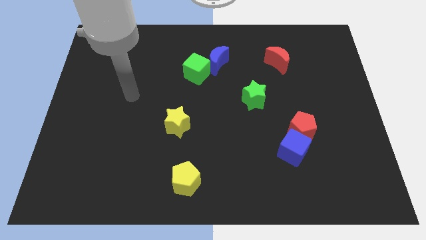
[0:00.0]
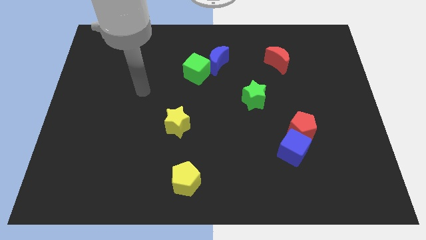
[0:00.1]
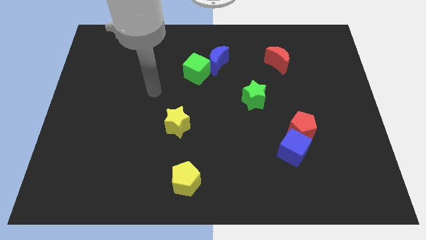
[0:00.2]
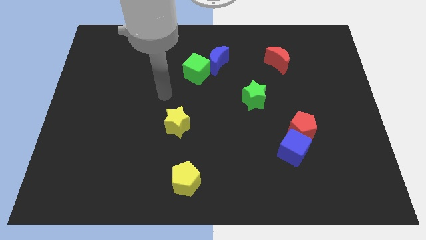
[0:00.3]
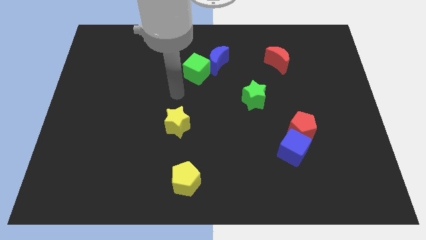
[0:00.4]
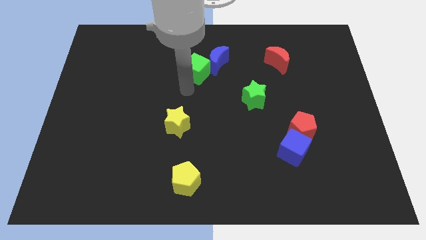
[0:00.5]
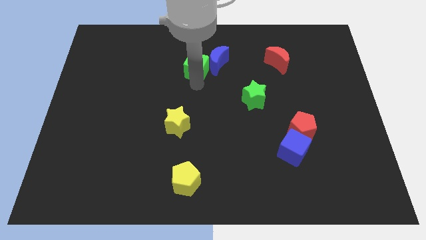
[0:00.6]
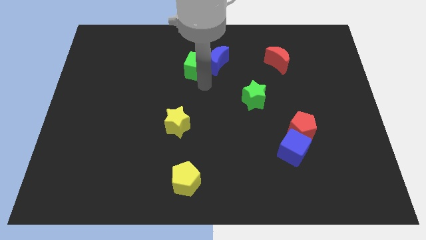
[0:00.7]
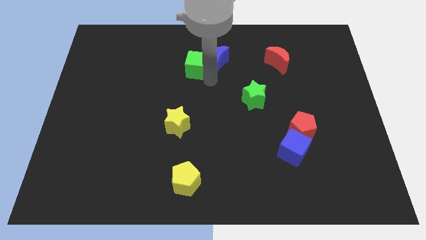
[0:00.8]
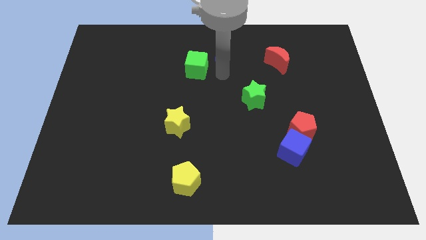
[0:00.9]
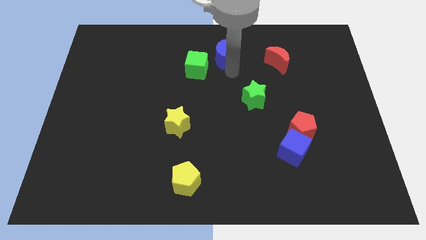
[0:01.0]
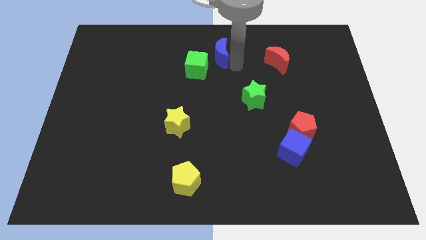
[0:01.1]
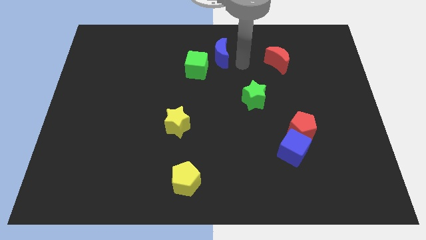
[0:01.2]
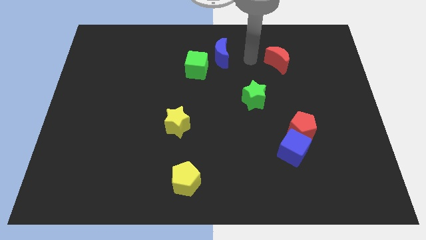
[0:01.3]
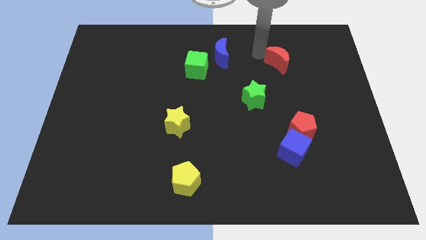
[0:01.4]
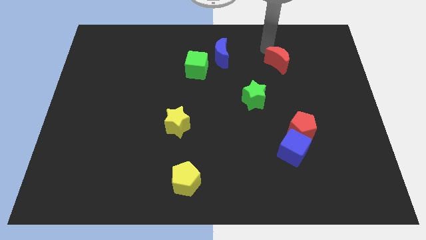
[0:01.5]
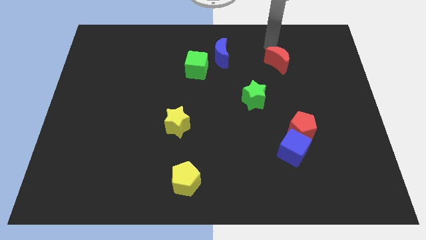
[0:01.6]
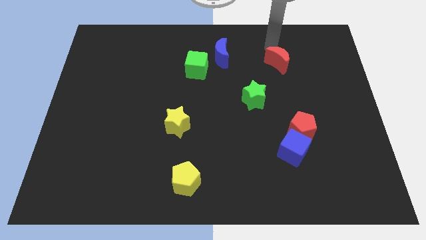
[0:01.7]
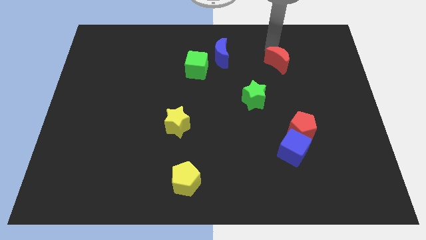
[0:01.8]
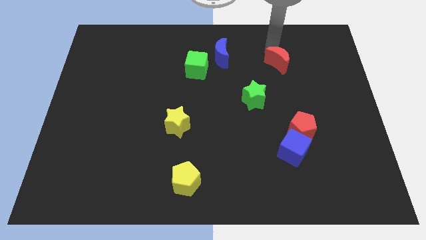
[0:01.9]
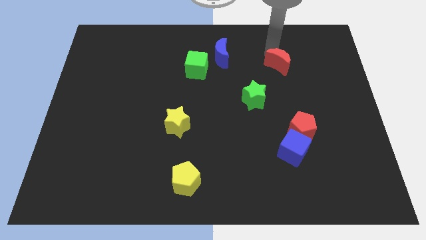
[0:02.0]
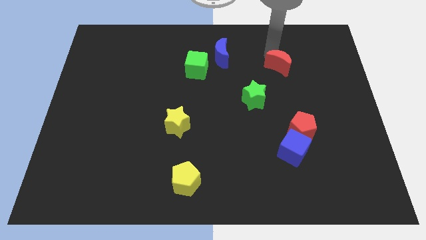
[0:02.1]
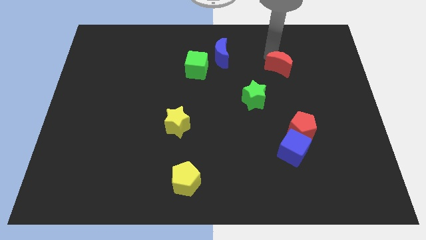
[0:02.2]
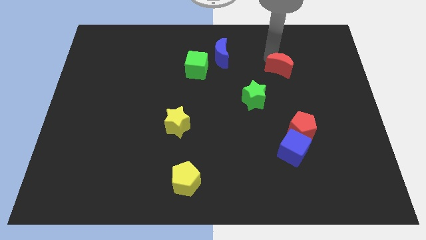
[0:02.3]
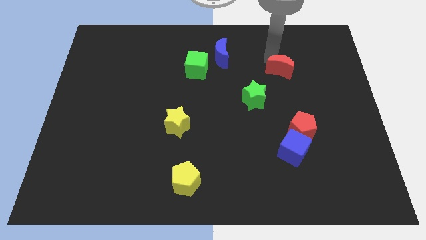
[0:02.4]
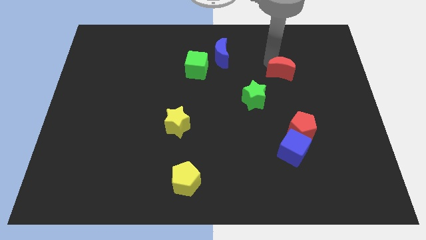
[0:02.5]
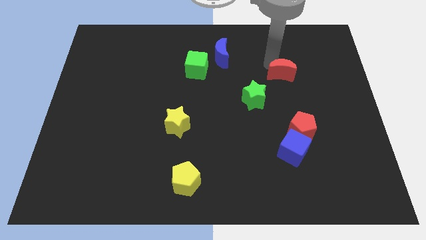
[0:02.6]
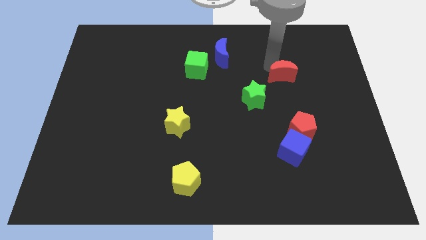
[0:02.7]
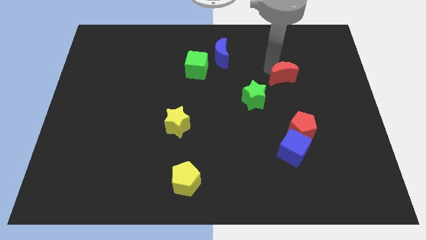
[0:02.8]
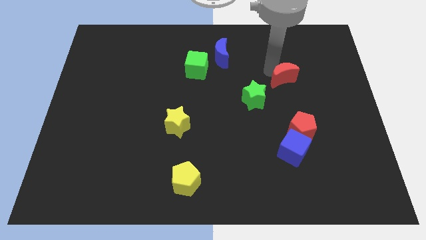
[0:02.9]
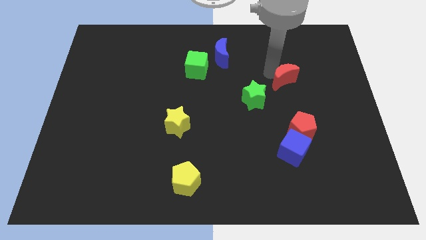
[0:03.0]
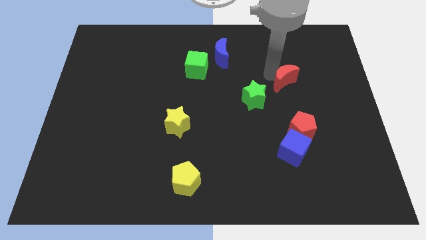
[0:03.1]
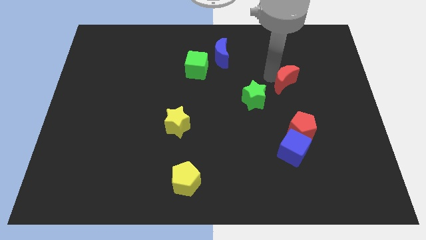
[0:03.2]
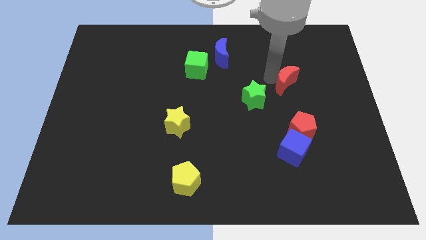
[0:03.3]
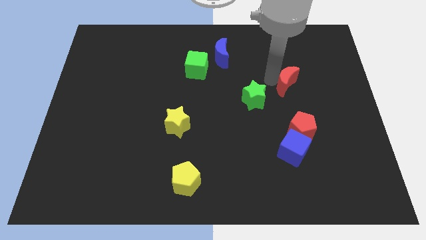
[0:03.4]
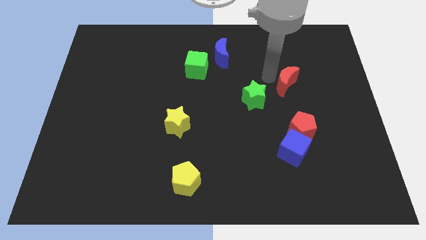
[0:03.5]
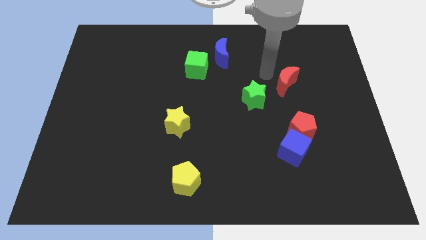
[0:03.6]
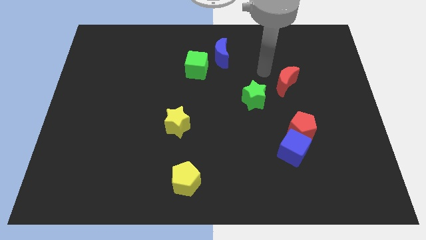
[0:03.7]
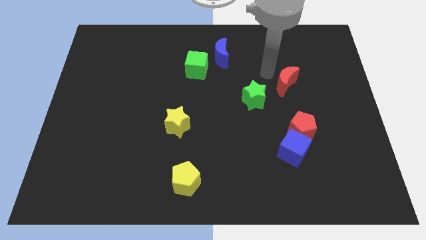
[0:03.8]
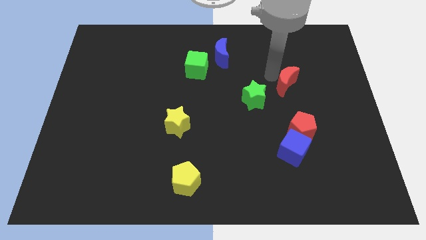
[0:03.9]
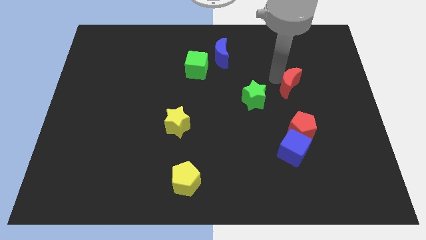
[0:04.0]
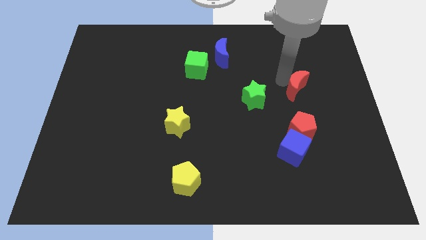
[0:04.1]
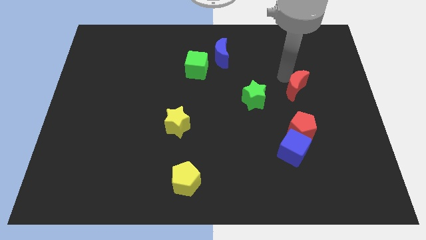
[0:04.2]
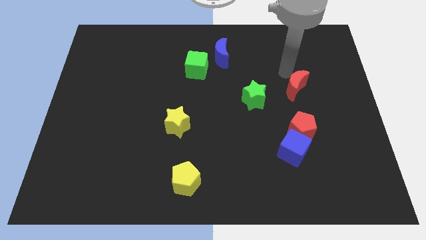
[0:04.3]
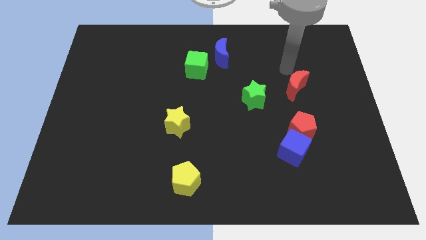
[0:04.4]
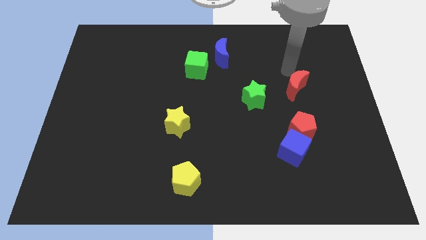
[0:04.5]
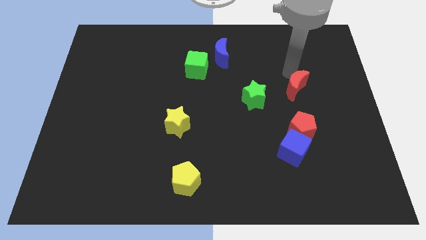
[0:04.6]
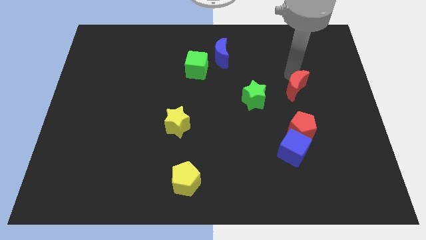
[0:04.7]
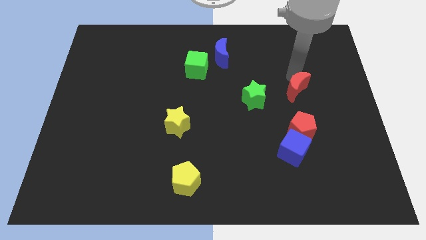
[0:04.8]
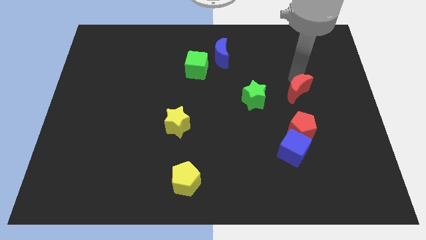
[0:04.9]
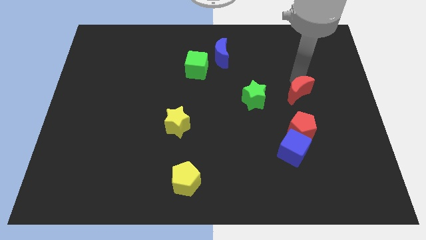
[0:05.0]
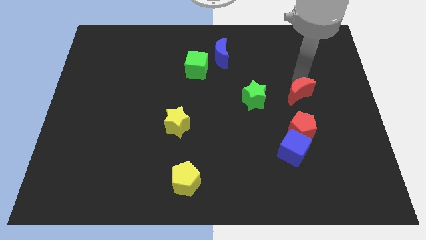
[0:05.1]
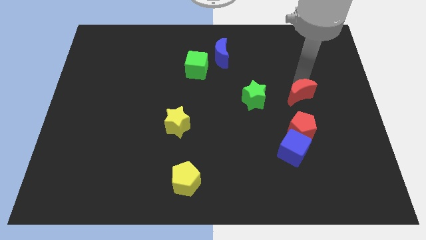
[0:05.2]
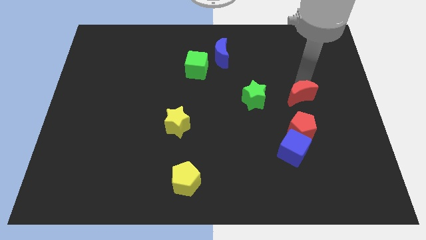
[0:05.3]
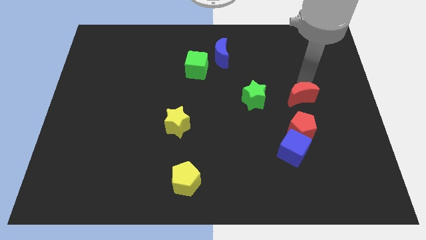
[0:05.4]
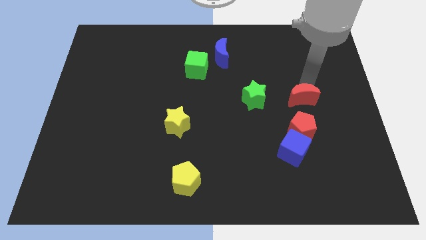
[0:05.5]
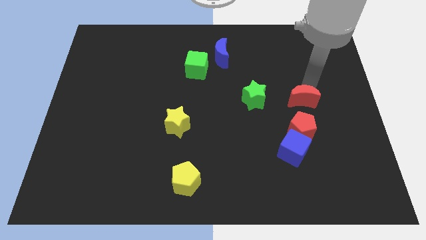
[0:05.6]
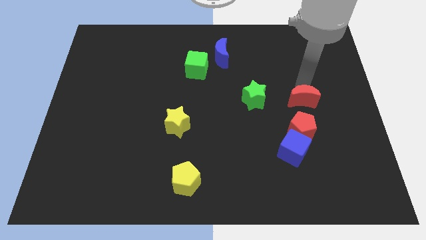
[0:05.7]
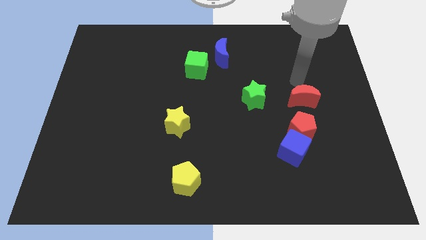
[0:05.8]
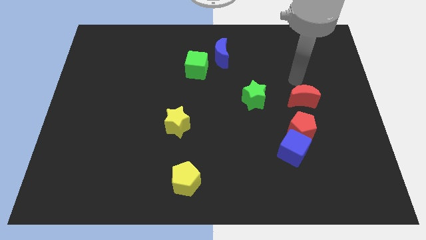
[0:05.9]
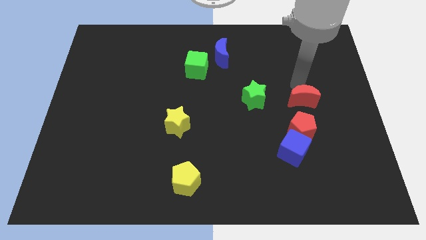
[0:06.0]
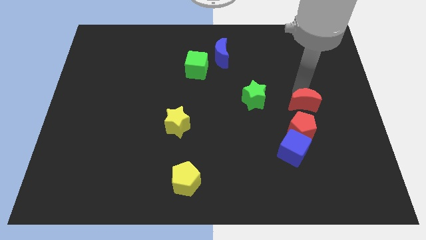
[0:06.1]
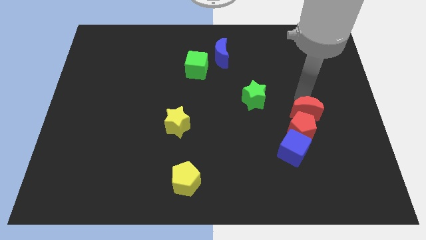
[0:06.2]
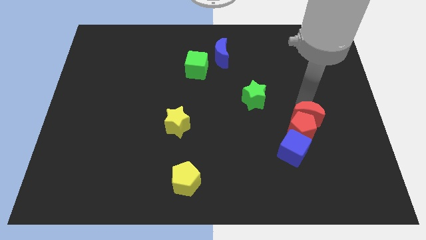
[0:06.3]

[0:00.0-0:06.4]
slide the red moon diagonally up and to the right of the blue cube
